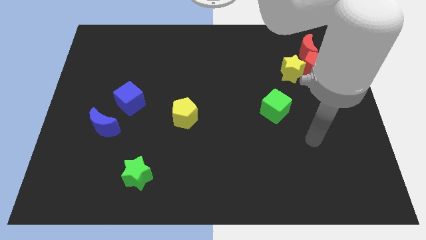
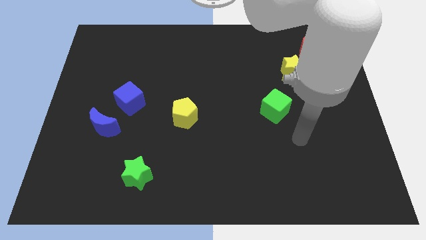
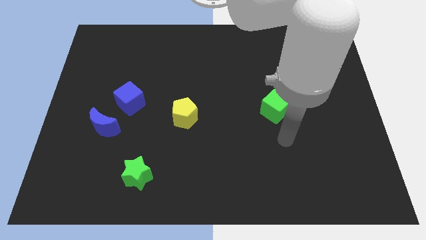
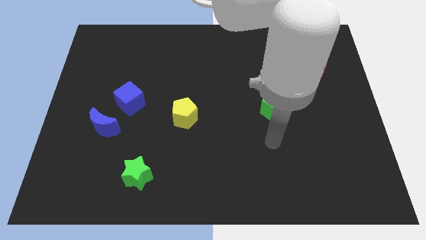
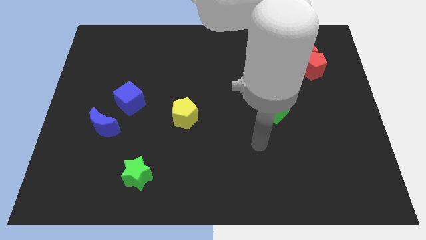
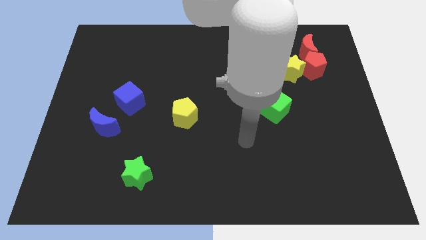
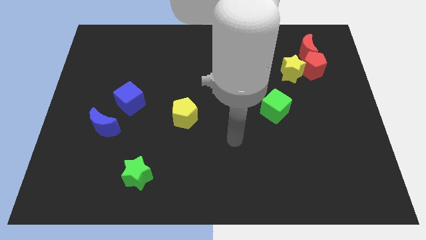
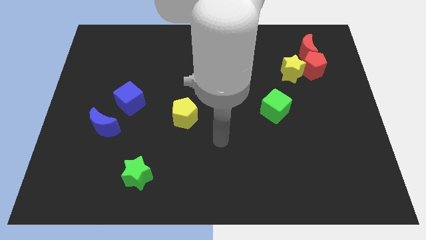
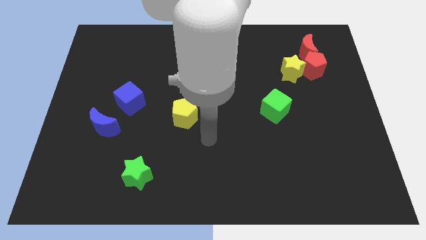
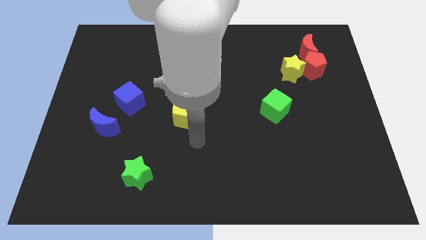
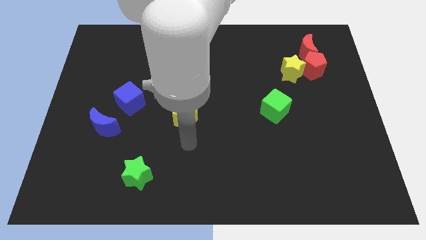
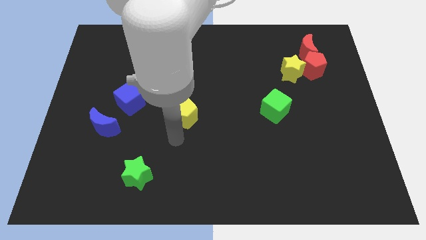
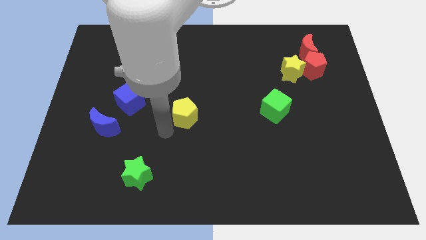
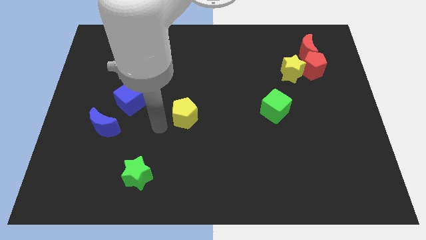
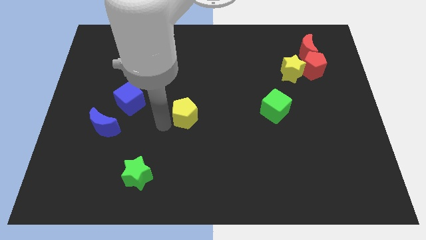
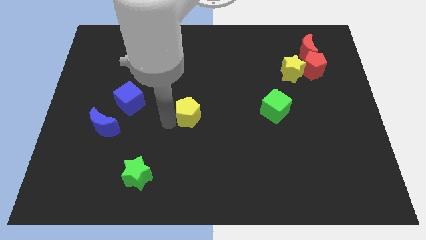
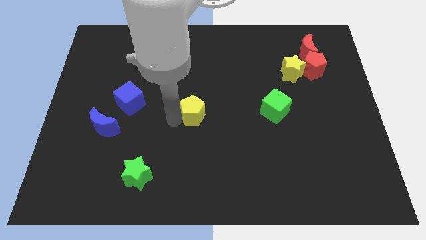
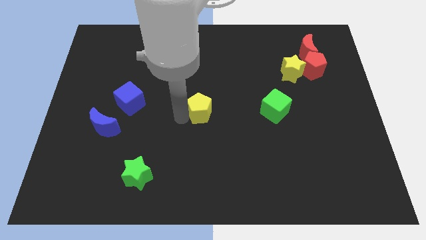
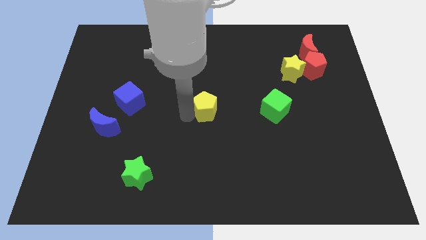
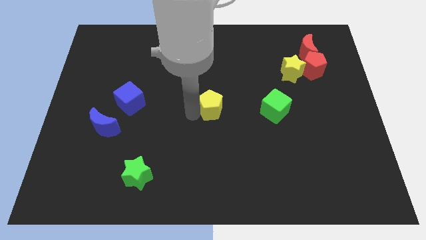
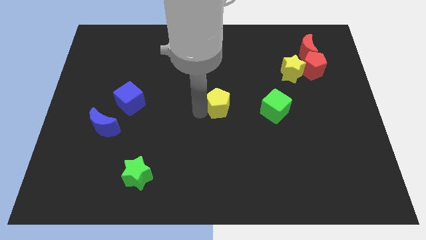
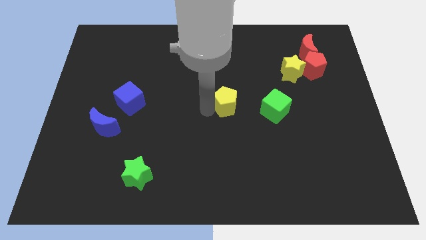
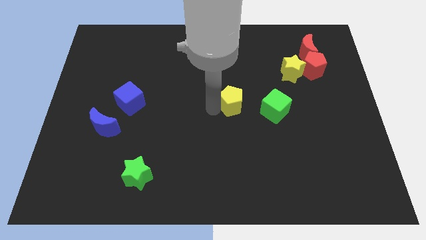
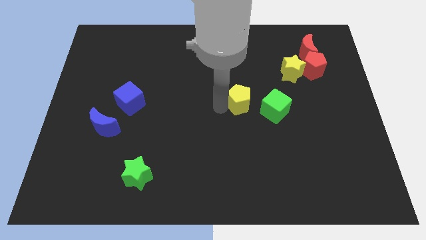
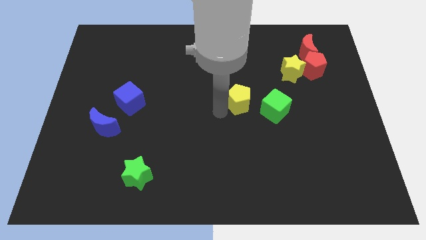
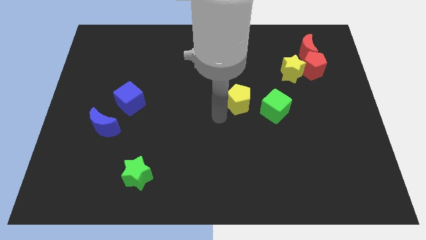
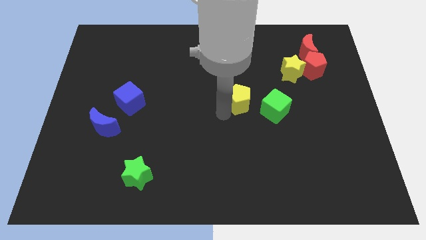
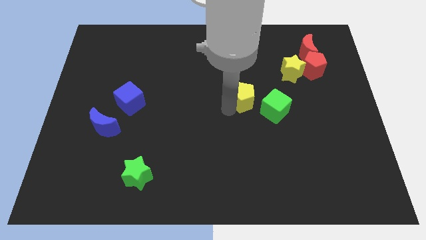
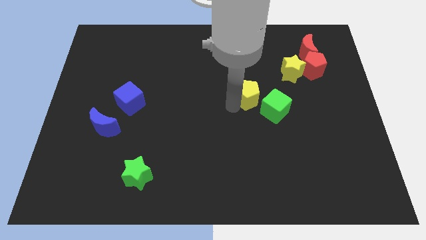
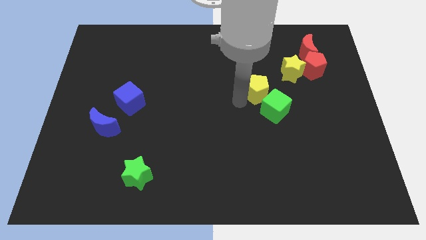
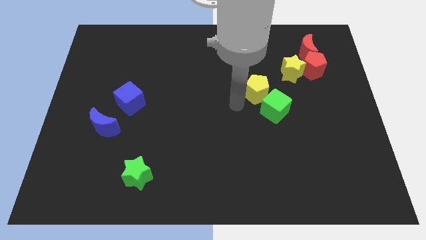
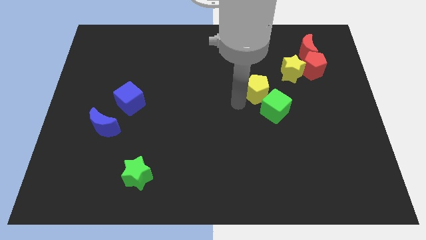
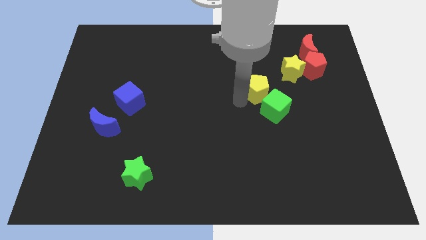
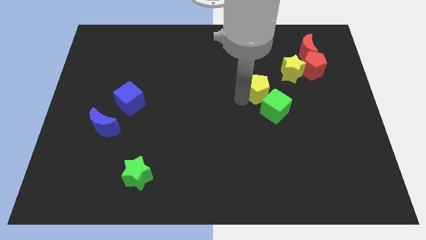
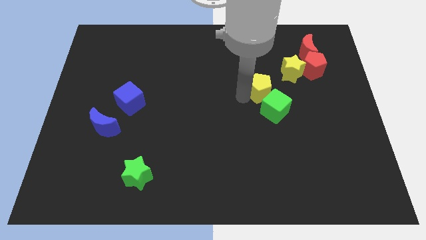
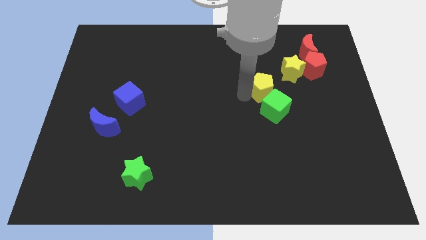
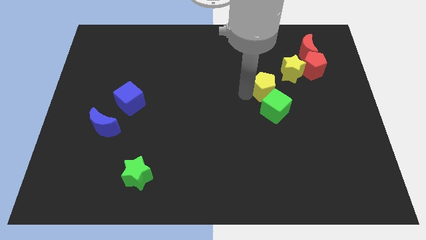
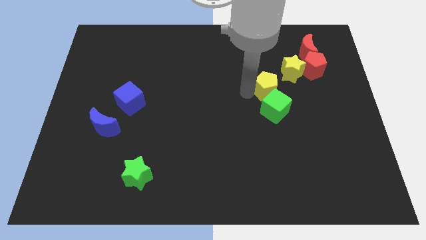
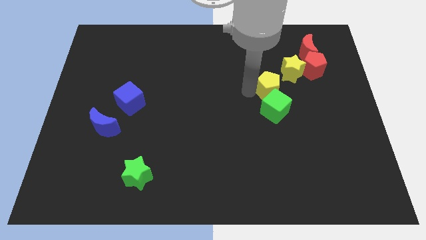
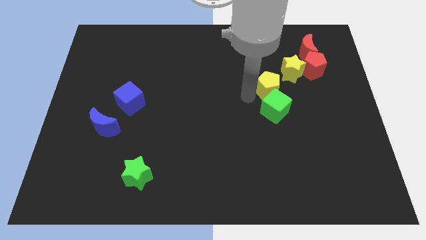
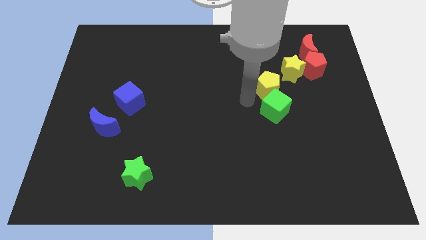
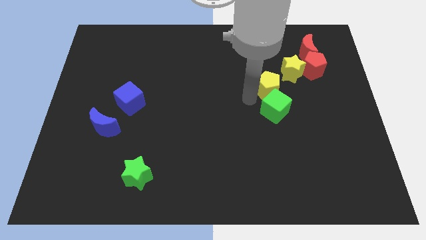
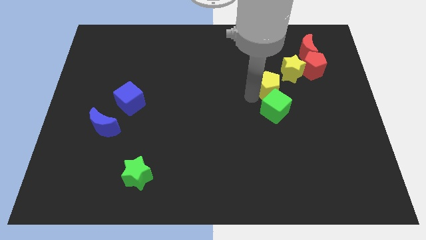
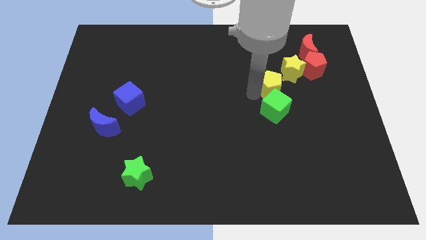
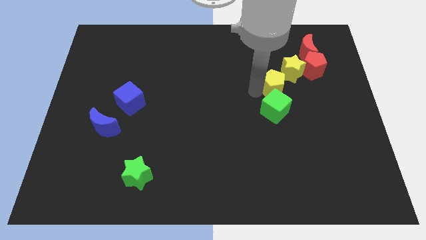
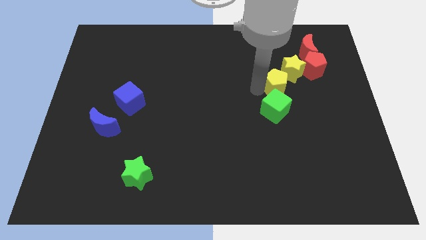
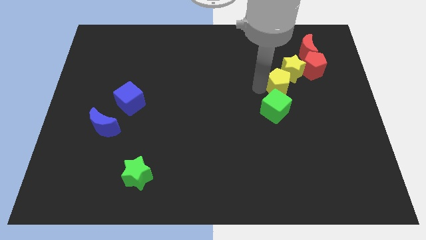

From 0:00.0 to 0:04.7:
slide the yellow pentagon close to the yellow star

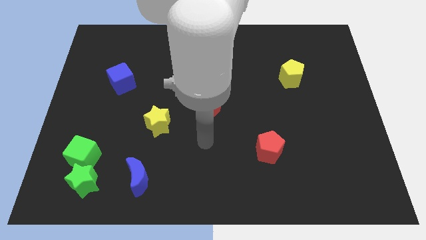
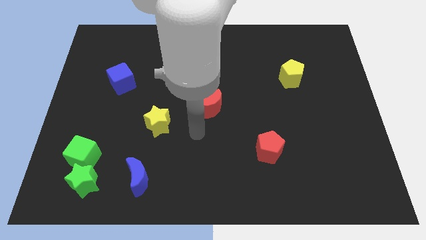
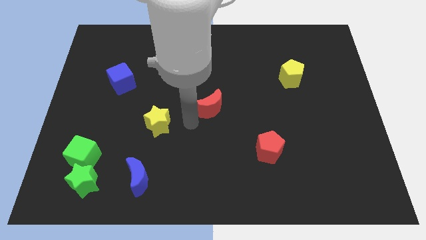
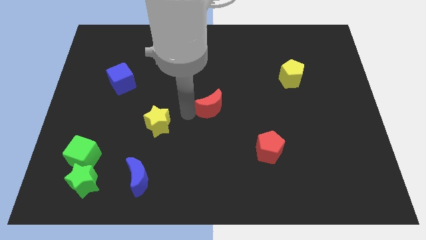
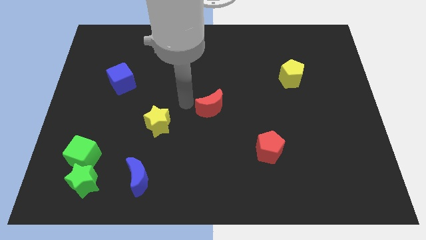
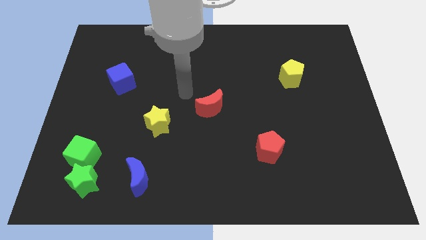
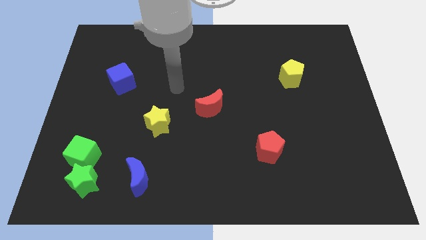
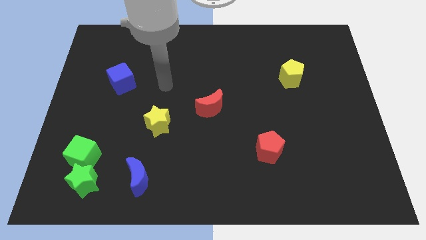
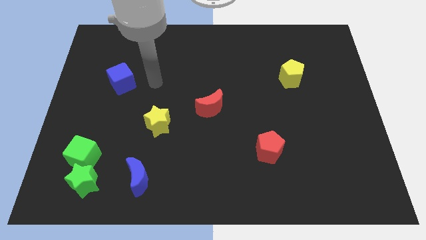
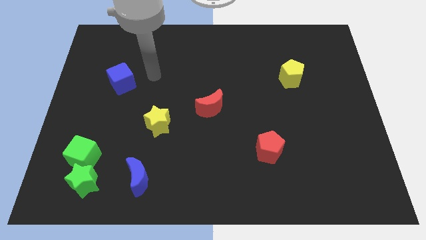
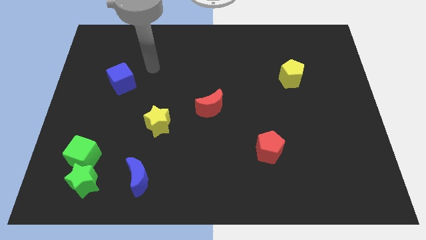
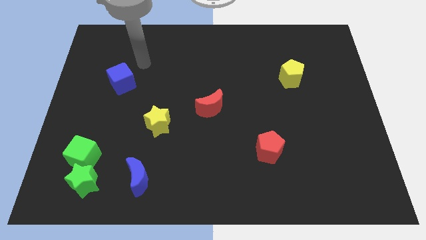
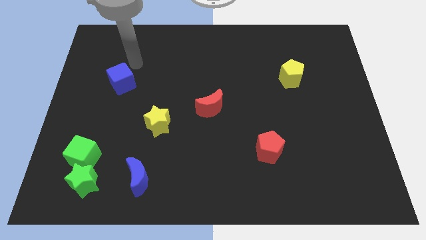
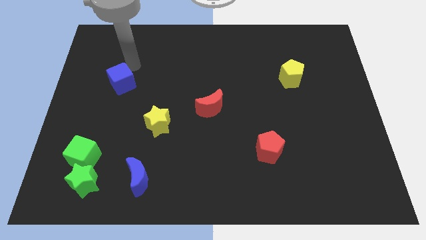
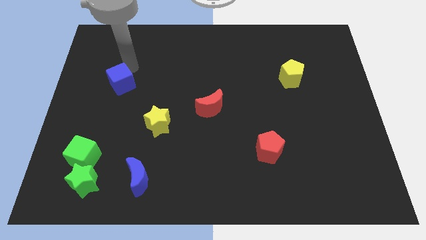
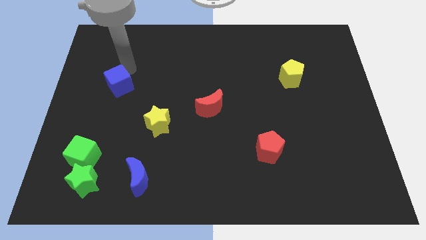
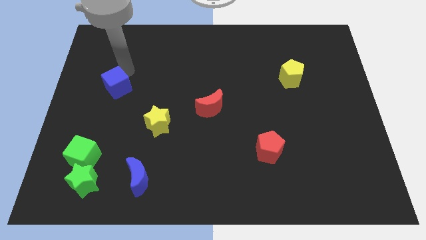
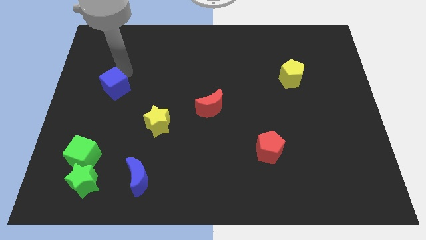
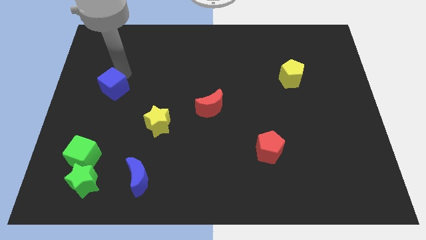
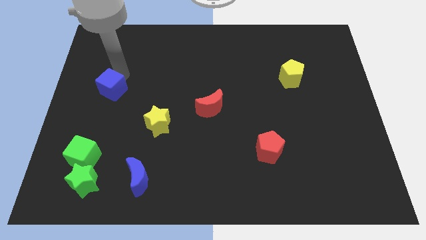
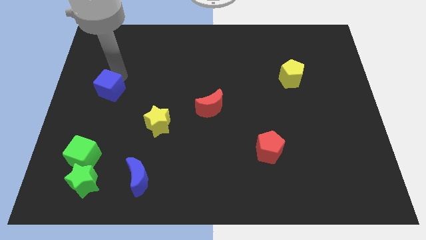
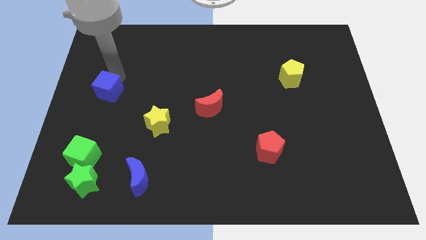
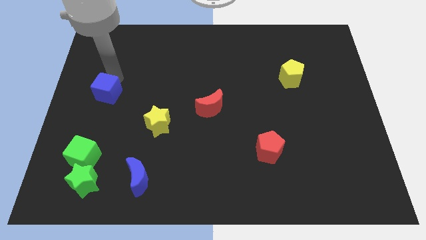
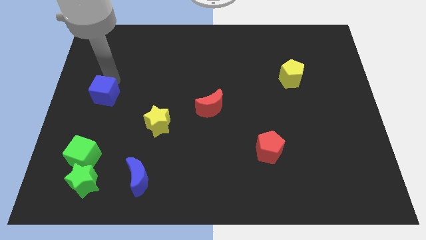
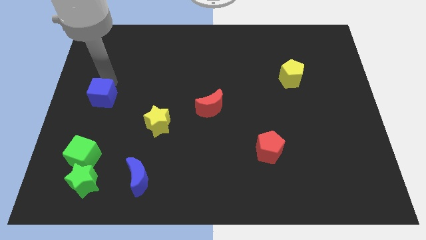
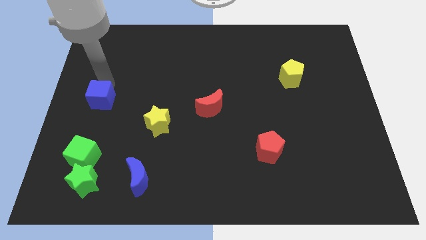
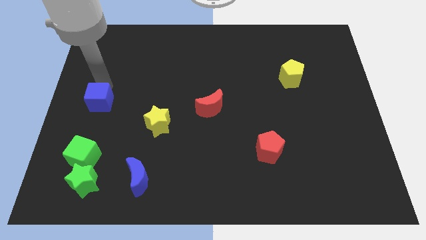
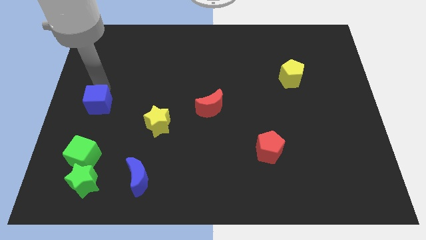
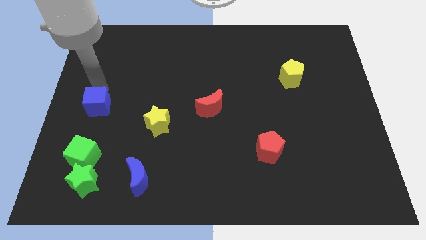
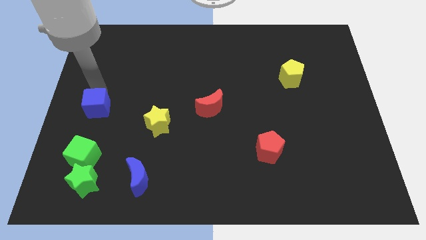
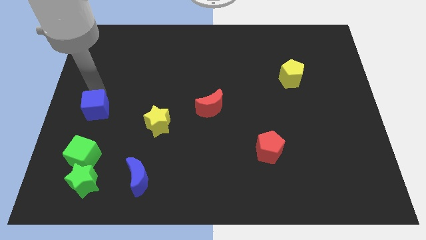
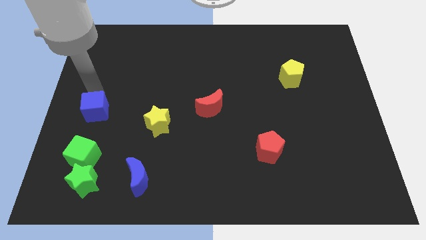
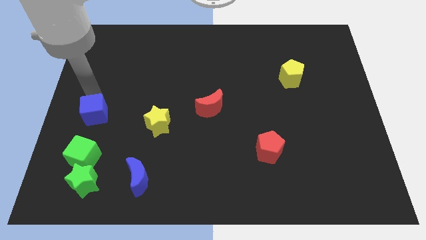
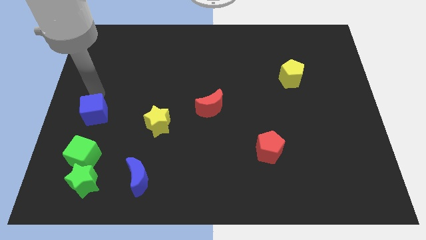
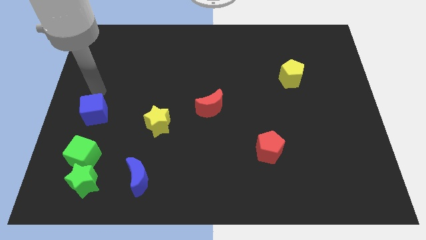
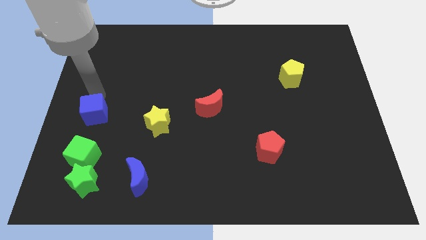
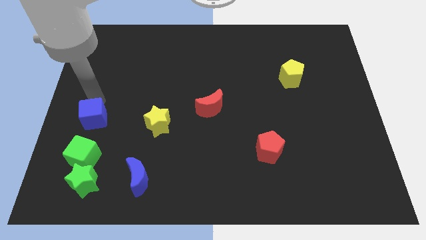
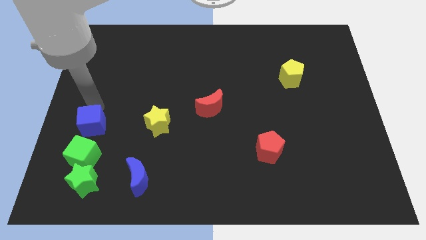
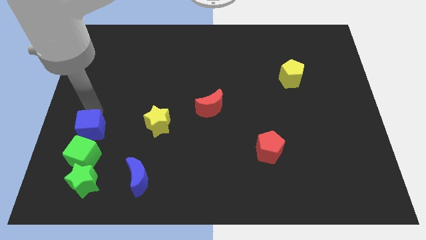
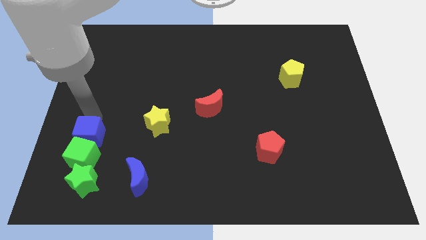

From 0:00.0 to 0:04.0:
move the blue cube to the green cube
